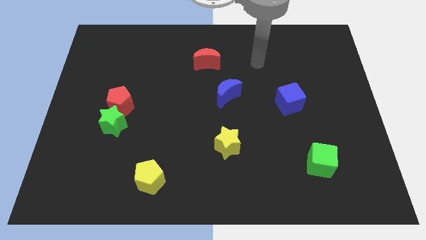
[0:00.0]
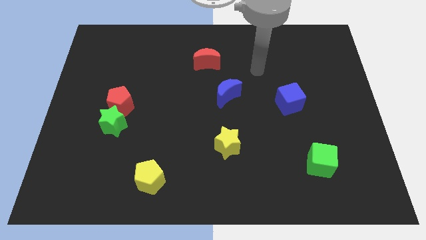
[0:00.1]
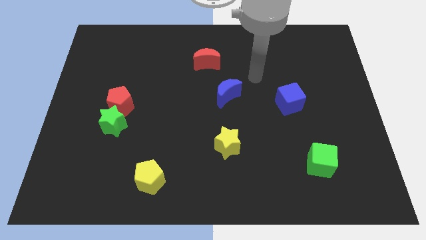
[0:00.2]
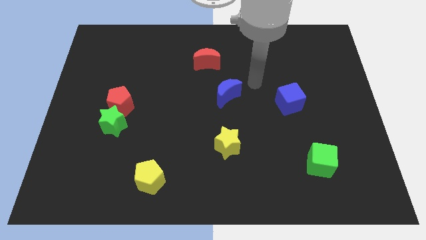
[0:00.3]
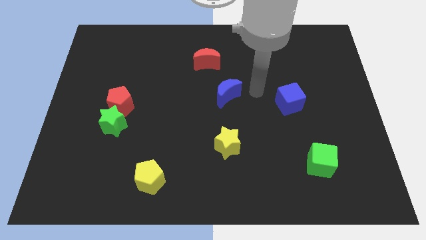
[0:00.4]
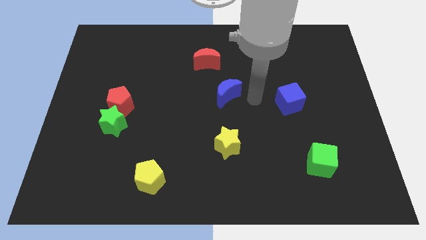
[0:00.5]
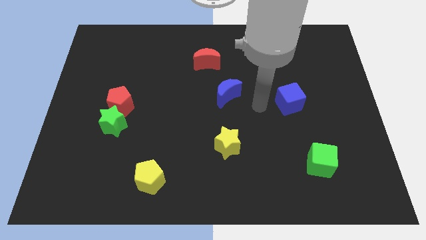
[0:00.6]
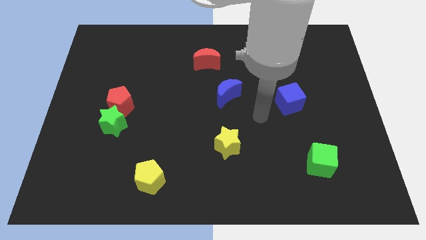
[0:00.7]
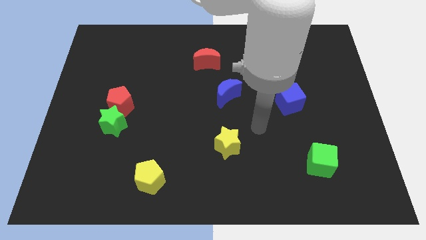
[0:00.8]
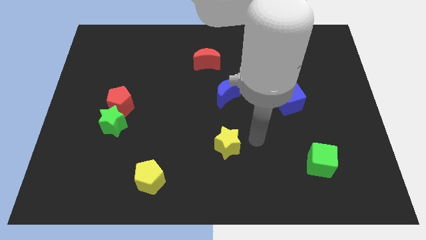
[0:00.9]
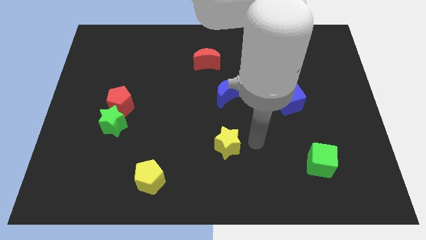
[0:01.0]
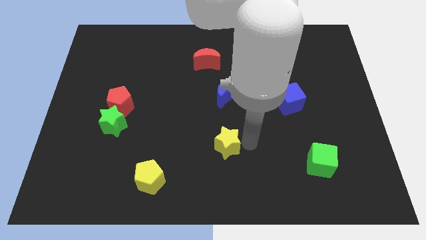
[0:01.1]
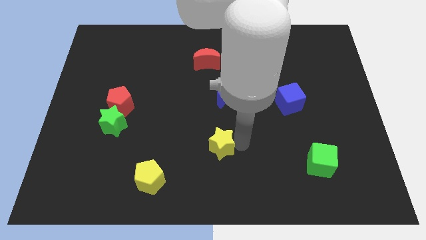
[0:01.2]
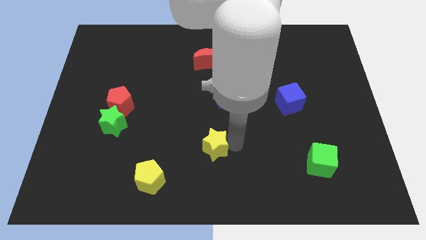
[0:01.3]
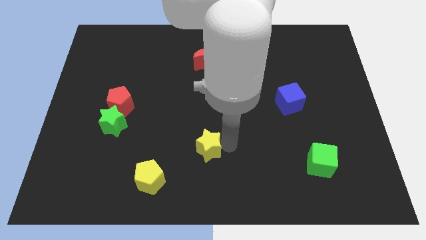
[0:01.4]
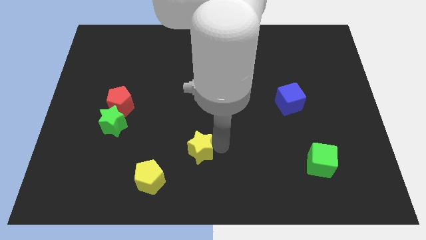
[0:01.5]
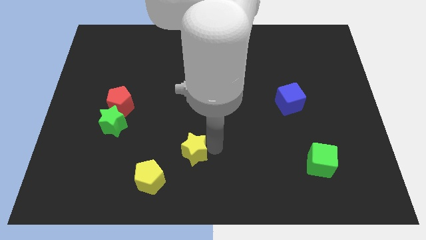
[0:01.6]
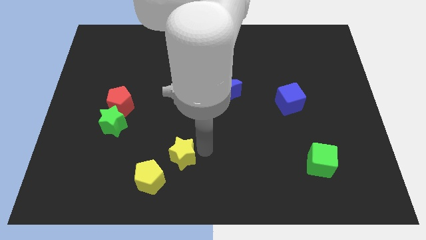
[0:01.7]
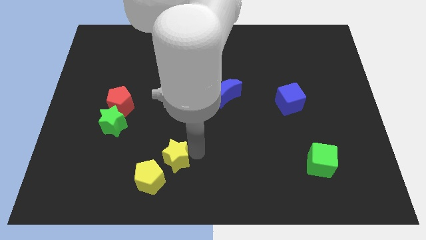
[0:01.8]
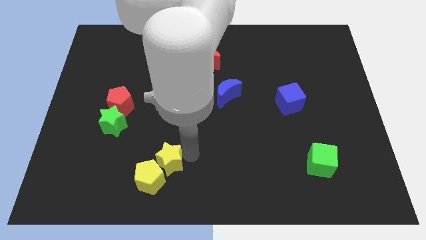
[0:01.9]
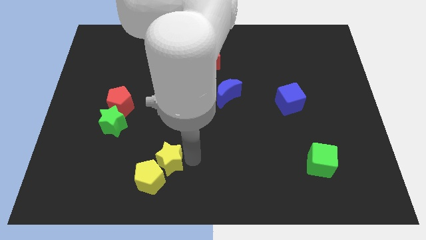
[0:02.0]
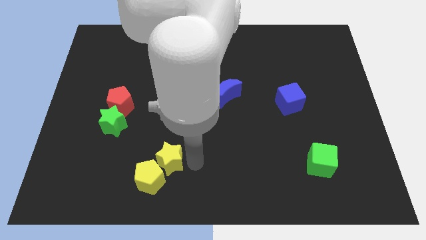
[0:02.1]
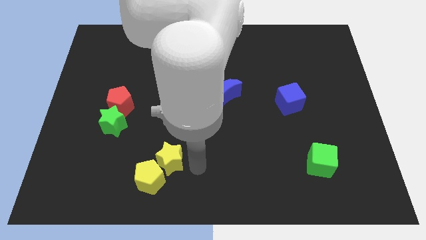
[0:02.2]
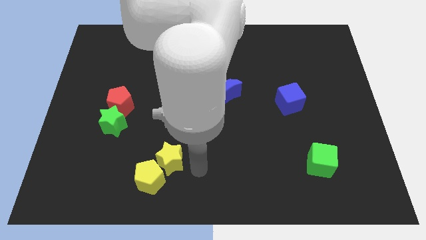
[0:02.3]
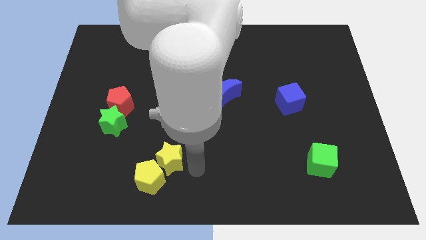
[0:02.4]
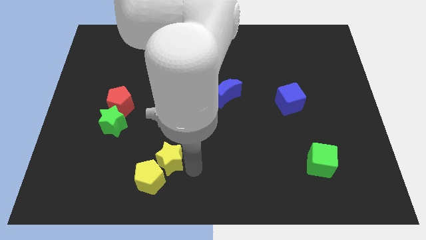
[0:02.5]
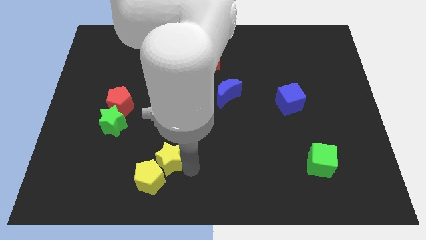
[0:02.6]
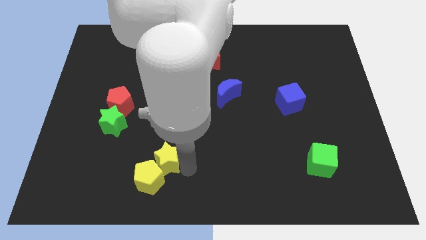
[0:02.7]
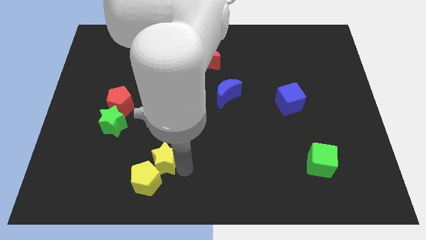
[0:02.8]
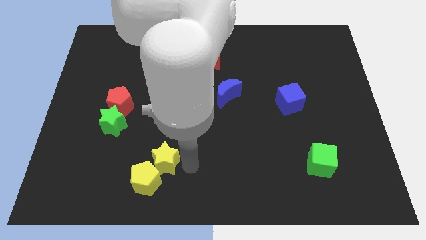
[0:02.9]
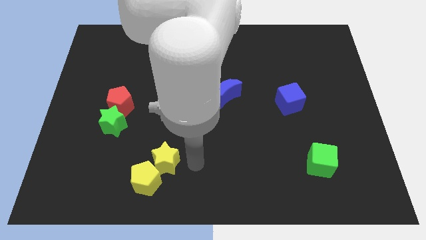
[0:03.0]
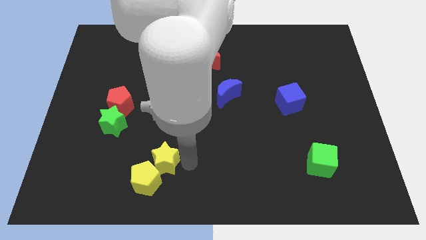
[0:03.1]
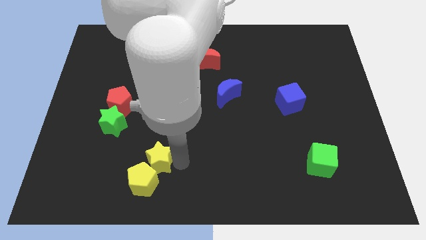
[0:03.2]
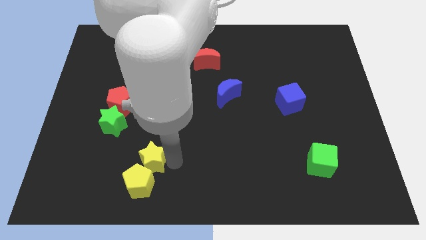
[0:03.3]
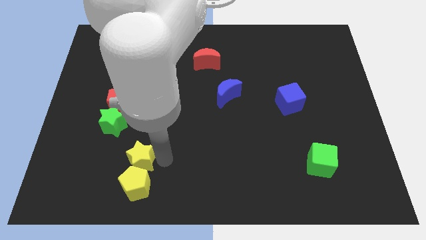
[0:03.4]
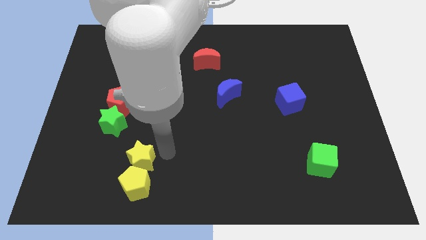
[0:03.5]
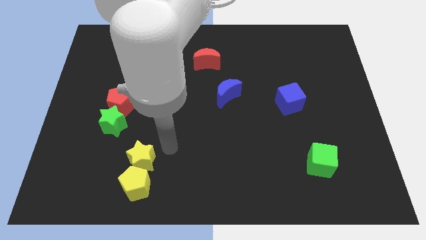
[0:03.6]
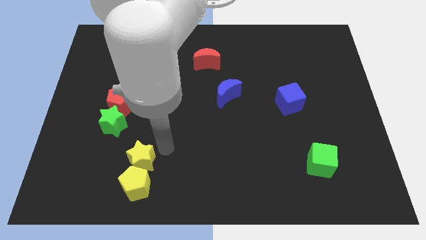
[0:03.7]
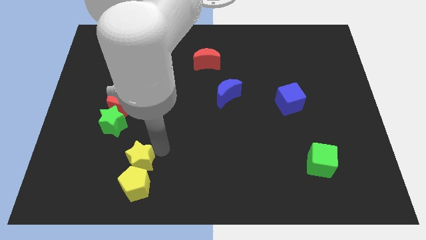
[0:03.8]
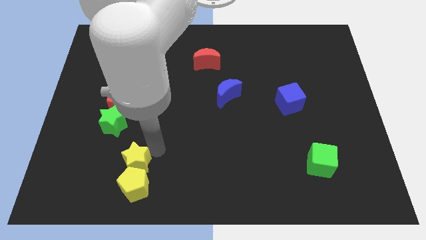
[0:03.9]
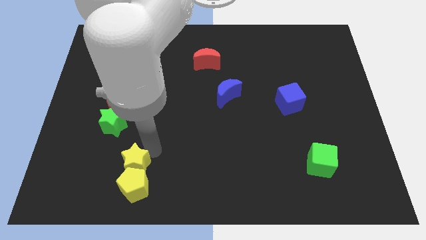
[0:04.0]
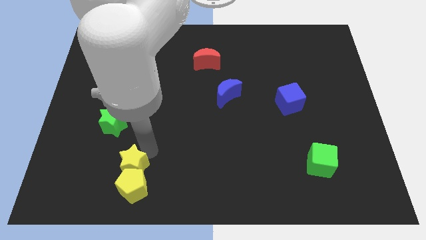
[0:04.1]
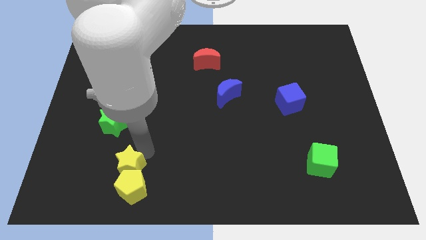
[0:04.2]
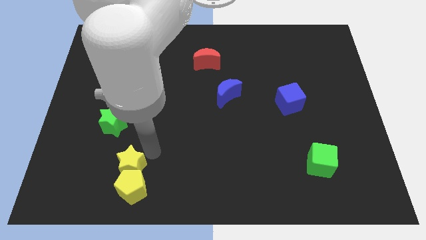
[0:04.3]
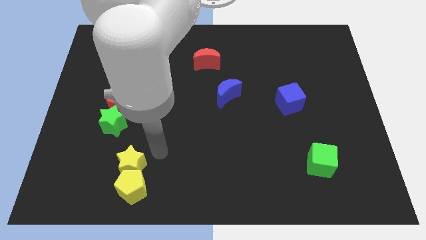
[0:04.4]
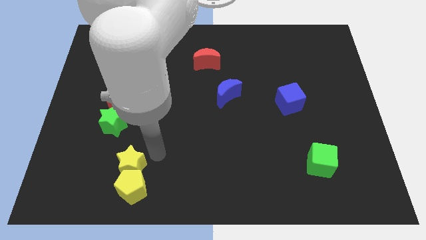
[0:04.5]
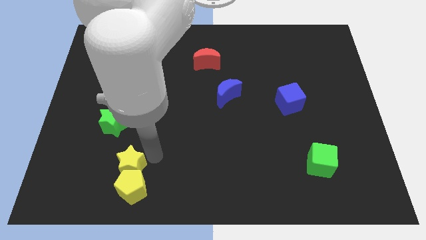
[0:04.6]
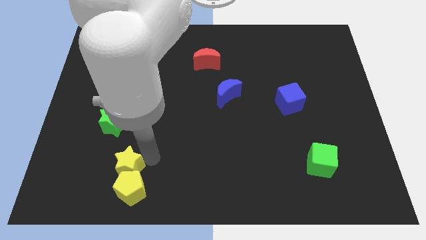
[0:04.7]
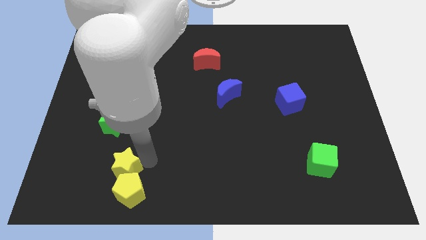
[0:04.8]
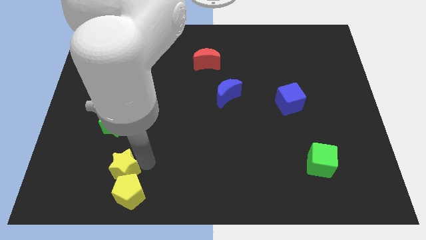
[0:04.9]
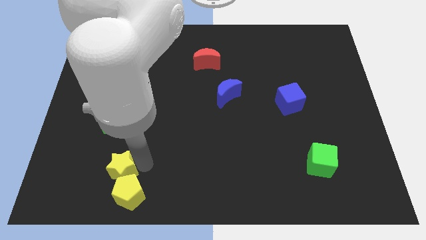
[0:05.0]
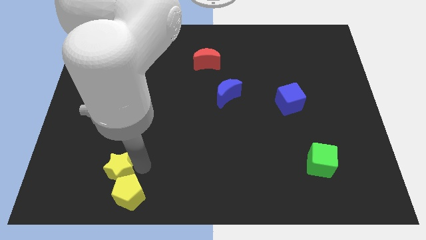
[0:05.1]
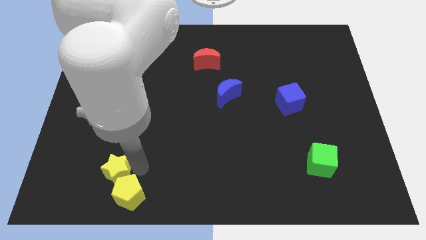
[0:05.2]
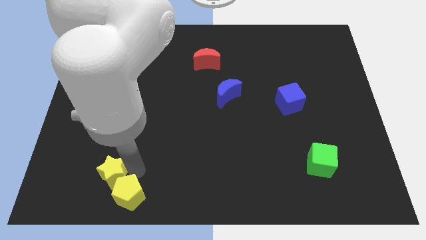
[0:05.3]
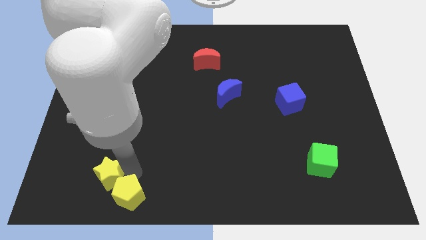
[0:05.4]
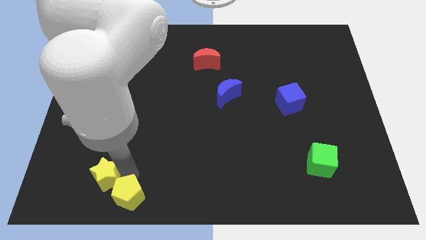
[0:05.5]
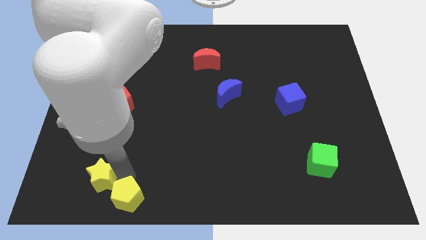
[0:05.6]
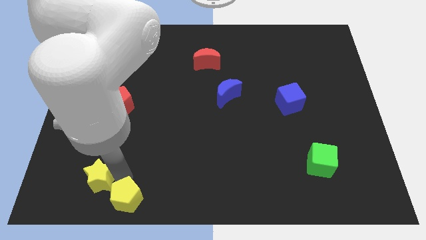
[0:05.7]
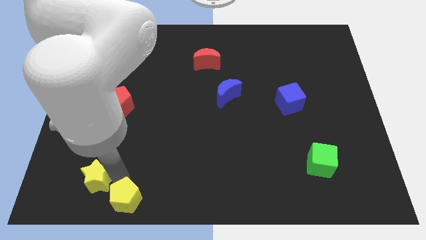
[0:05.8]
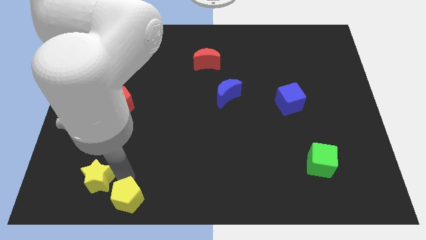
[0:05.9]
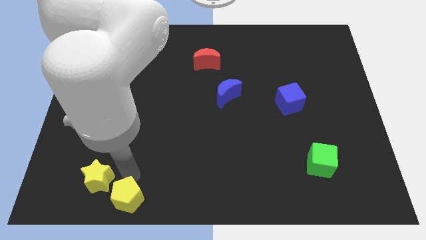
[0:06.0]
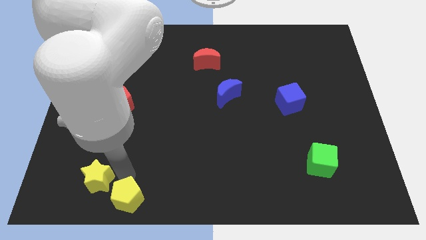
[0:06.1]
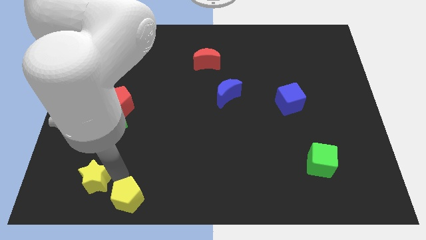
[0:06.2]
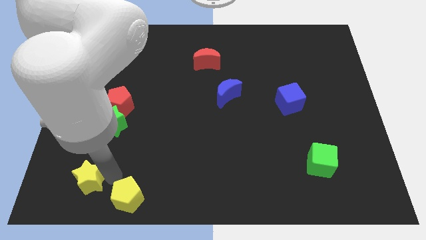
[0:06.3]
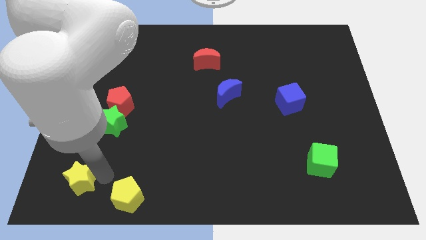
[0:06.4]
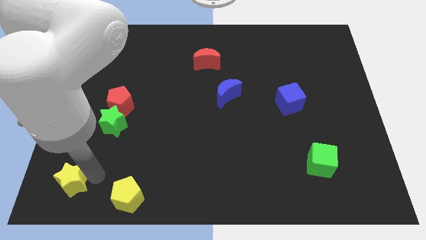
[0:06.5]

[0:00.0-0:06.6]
move the yellow star to the bottom left
